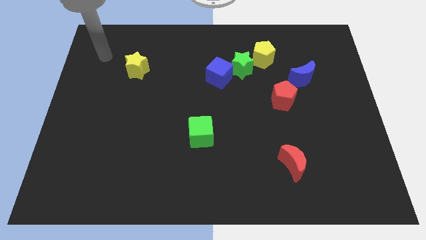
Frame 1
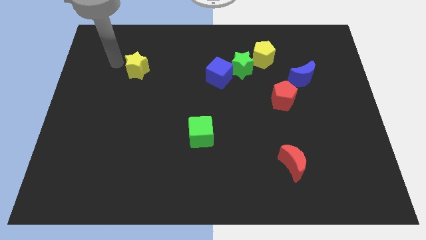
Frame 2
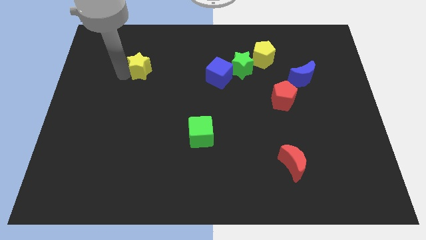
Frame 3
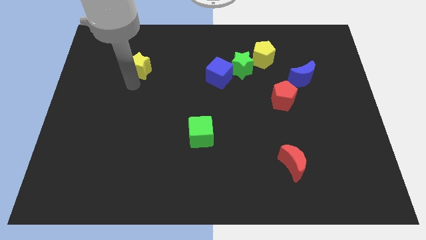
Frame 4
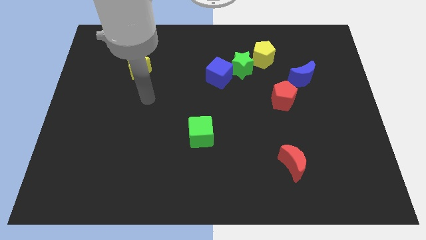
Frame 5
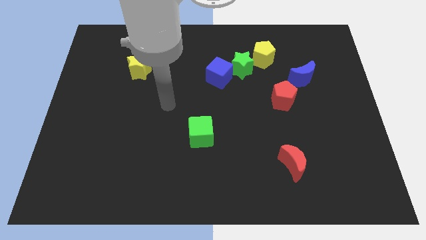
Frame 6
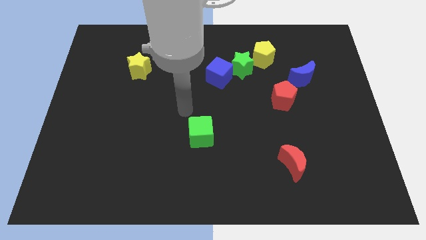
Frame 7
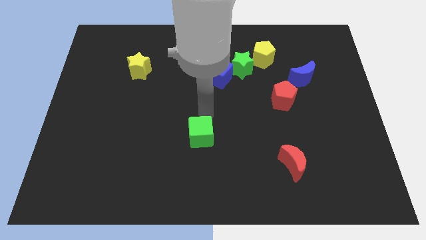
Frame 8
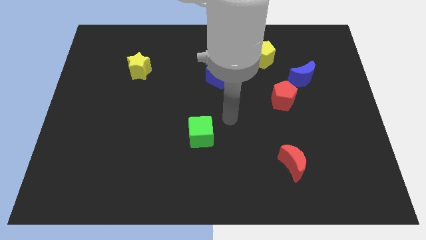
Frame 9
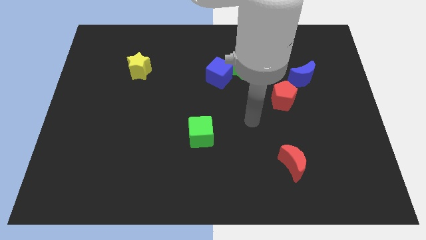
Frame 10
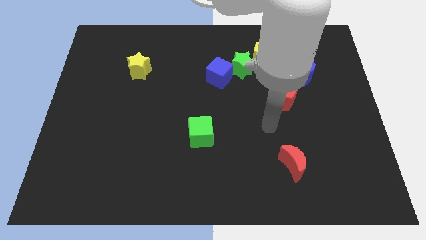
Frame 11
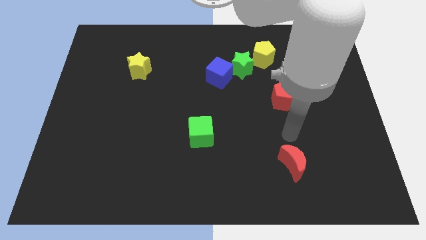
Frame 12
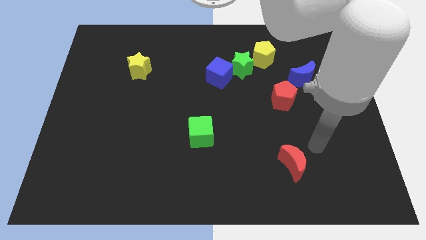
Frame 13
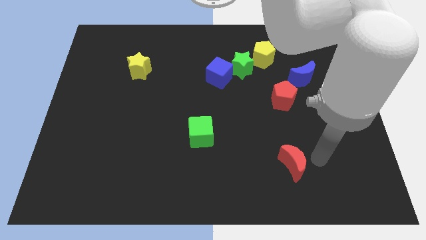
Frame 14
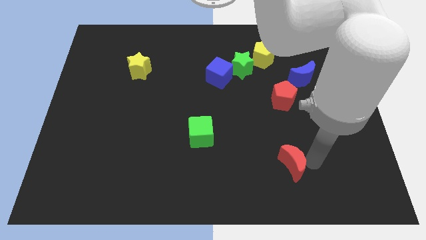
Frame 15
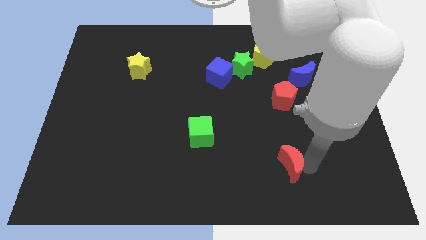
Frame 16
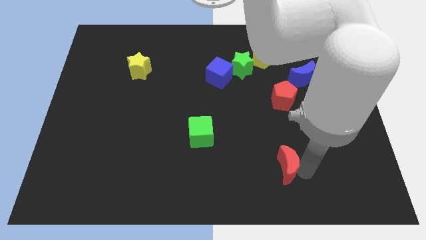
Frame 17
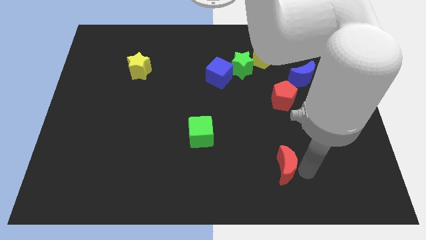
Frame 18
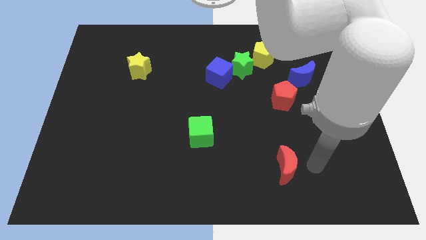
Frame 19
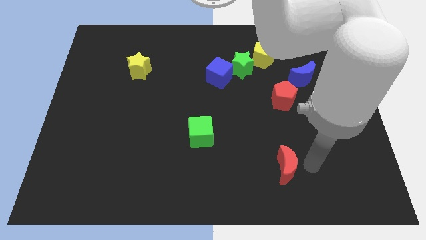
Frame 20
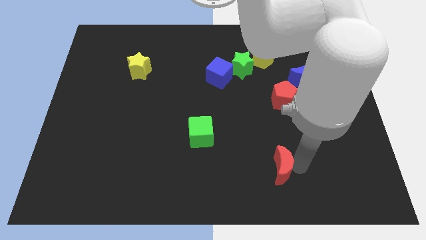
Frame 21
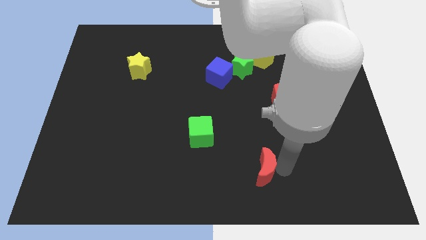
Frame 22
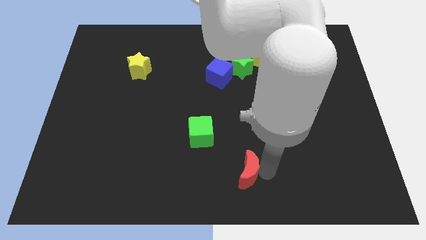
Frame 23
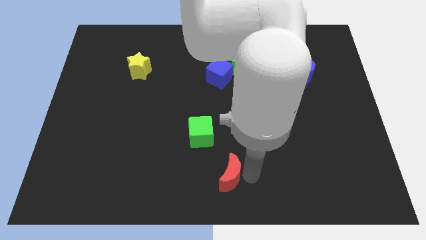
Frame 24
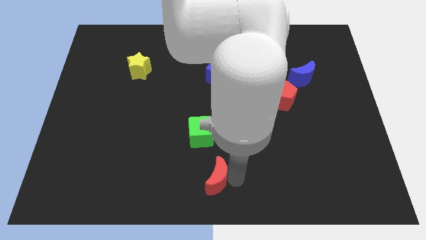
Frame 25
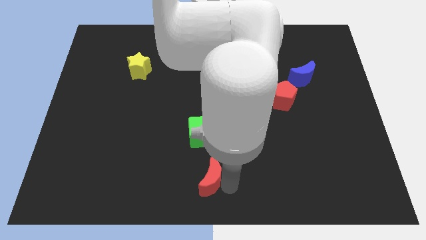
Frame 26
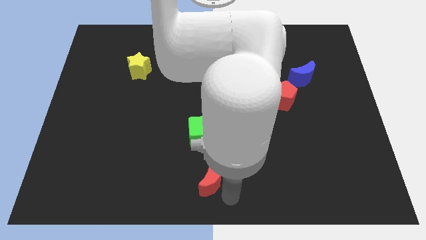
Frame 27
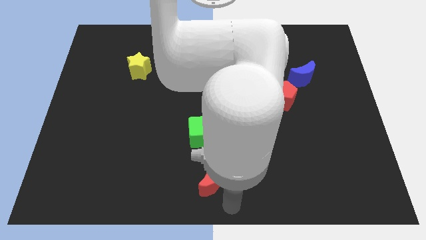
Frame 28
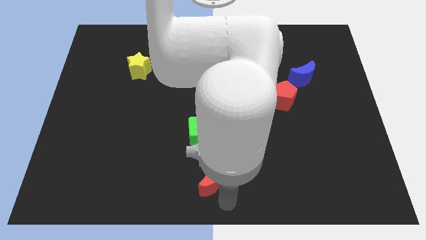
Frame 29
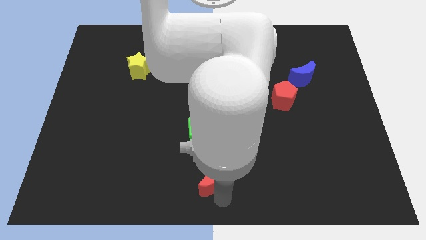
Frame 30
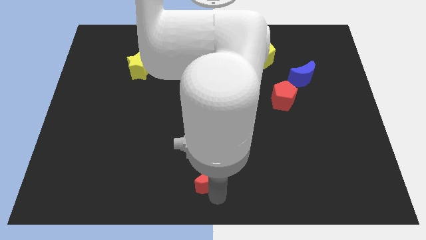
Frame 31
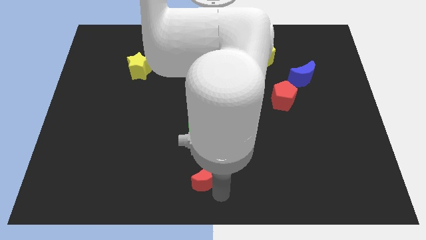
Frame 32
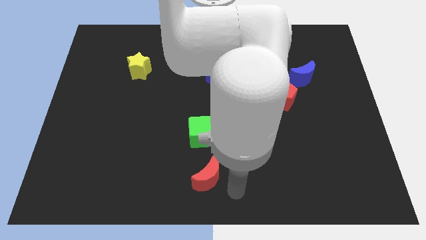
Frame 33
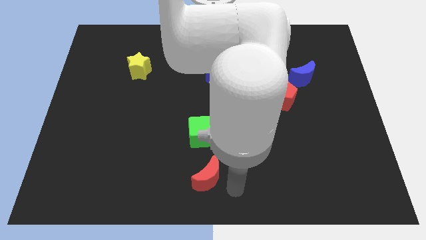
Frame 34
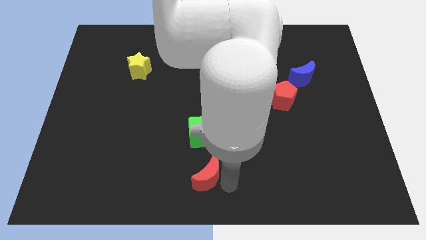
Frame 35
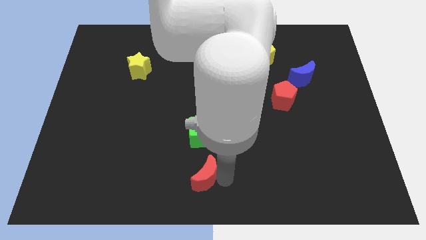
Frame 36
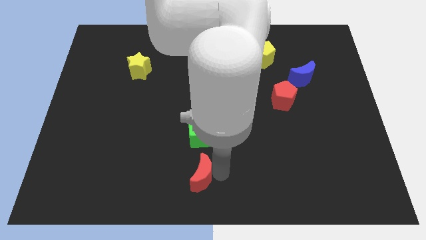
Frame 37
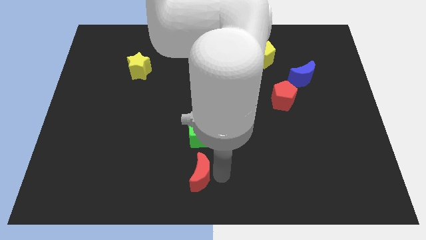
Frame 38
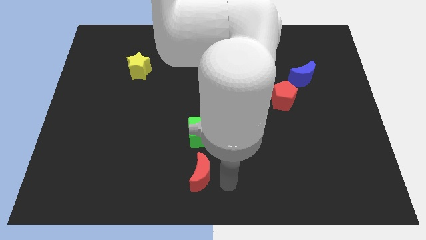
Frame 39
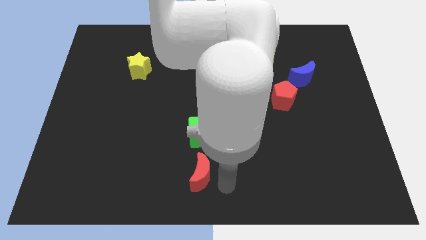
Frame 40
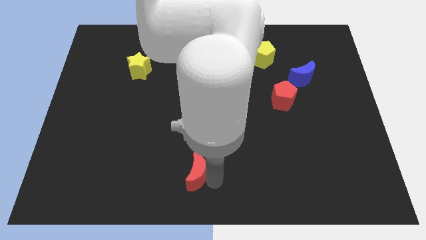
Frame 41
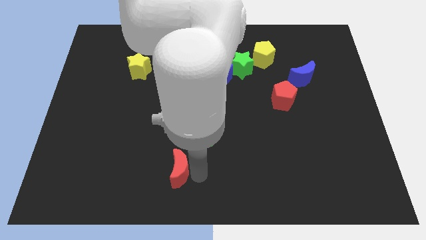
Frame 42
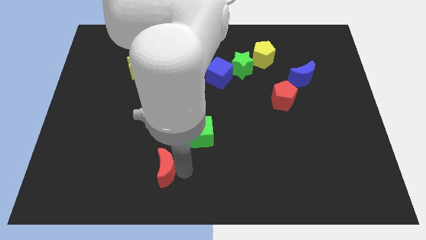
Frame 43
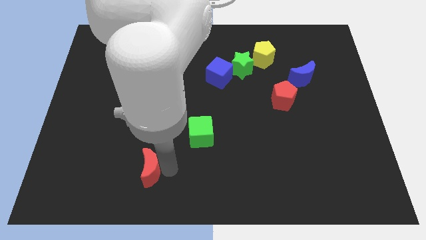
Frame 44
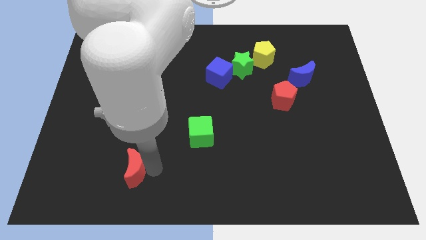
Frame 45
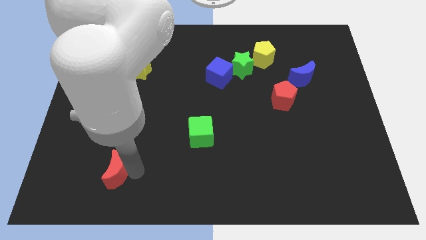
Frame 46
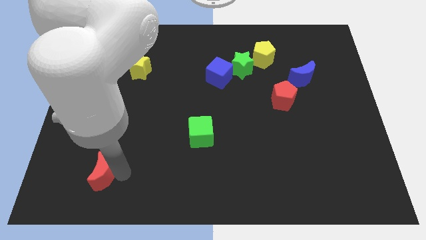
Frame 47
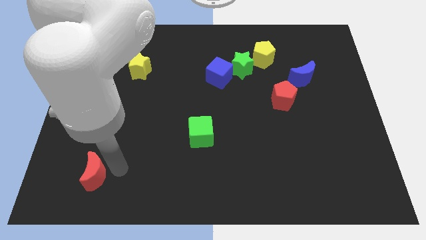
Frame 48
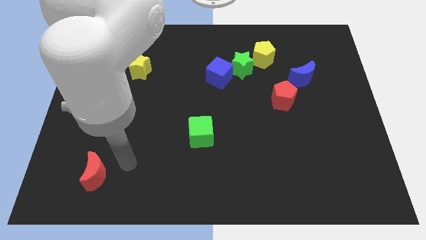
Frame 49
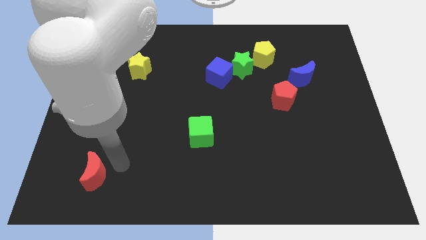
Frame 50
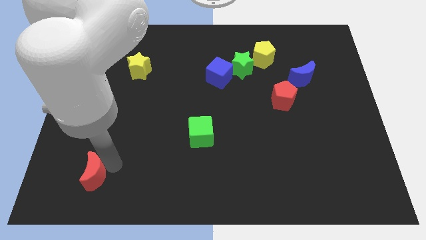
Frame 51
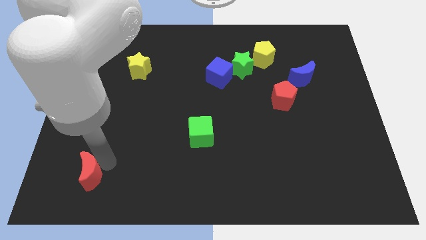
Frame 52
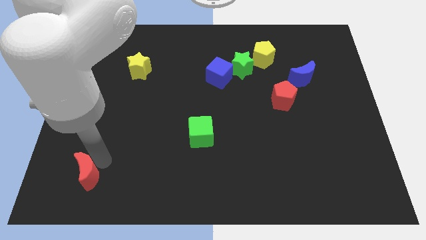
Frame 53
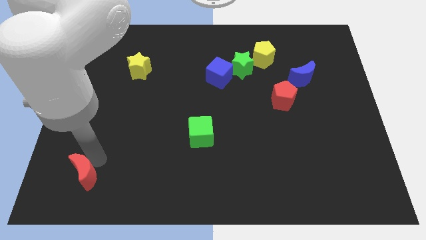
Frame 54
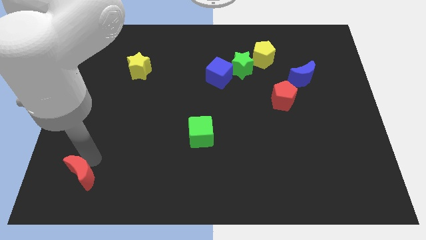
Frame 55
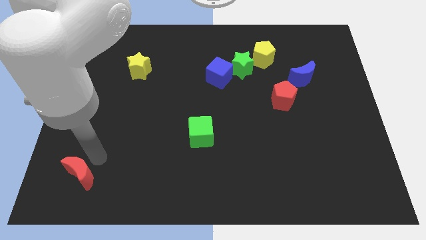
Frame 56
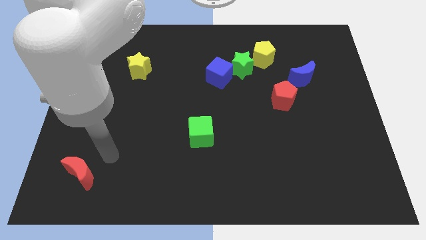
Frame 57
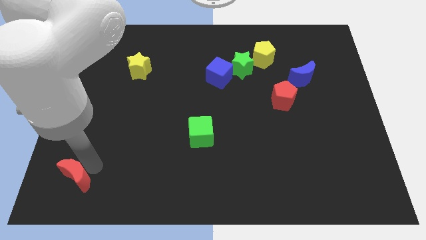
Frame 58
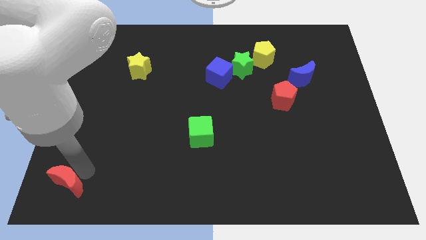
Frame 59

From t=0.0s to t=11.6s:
slide the red moon to the bottom left of the board

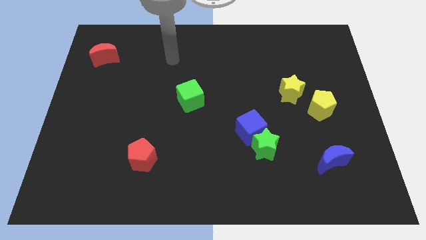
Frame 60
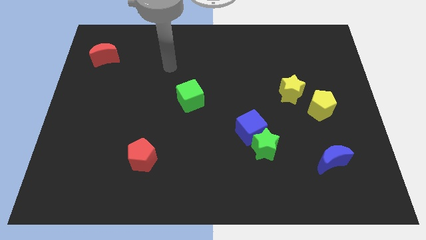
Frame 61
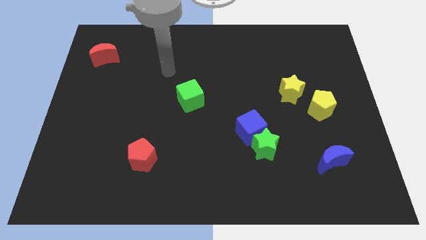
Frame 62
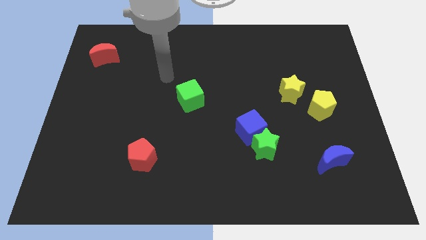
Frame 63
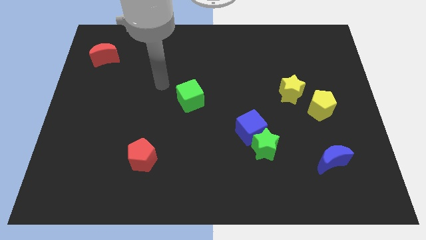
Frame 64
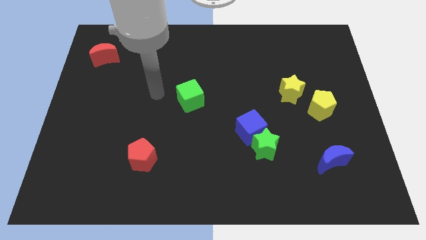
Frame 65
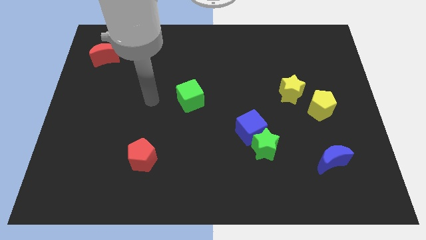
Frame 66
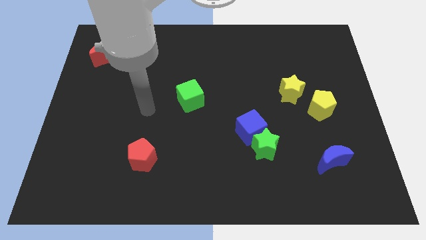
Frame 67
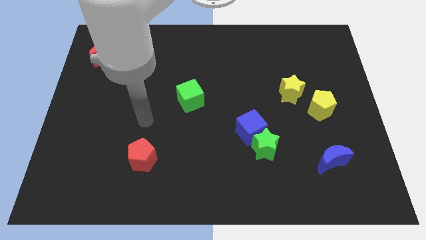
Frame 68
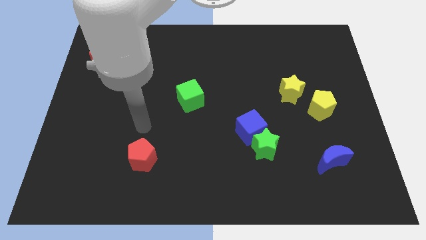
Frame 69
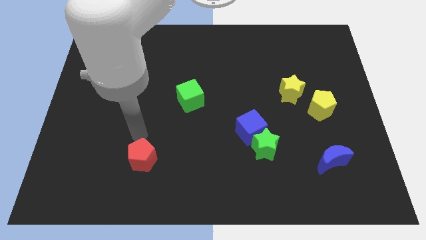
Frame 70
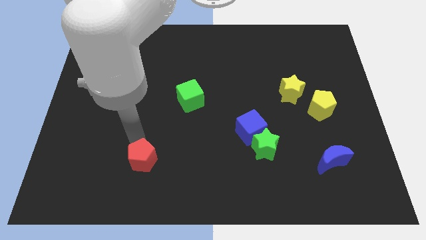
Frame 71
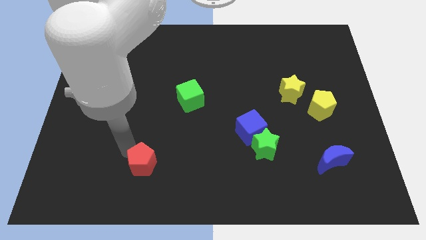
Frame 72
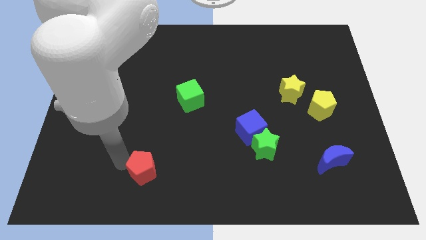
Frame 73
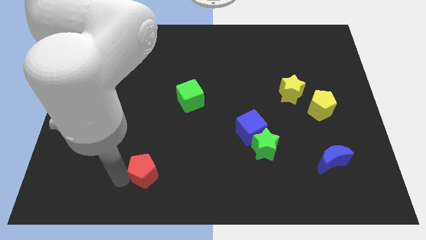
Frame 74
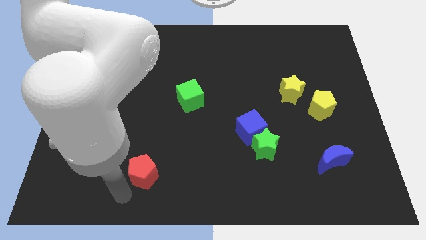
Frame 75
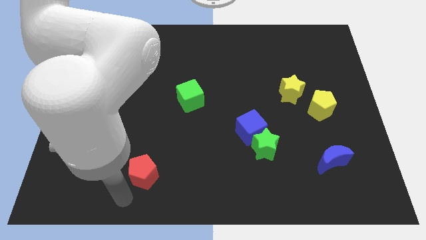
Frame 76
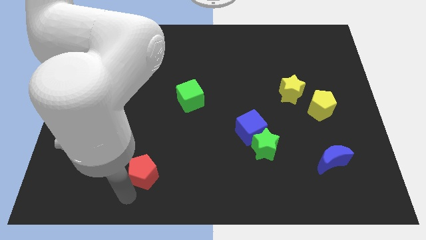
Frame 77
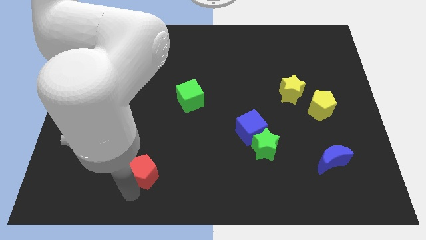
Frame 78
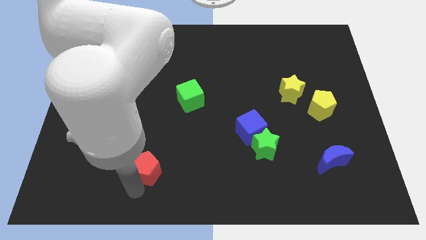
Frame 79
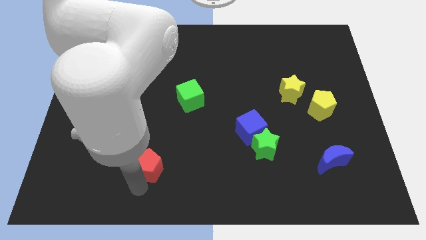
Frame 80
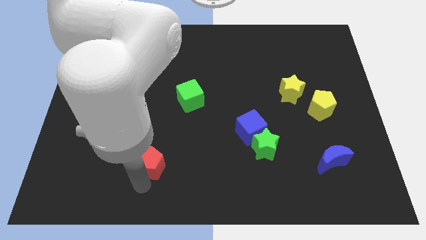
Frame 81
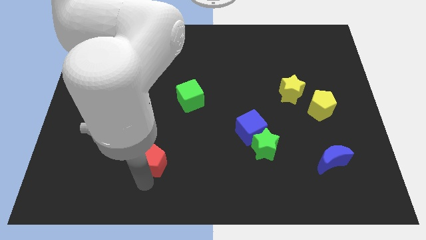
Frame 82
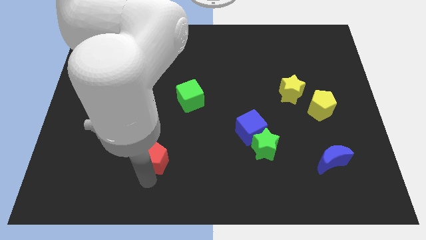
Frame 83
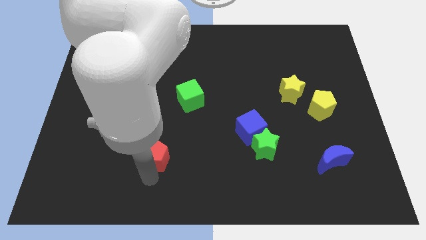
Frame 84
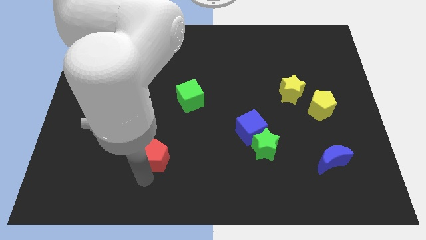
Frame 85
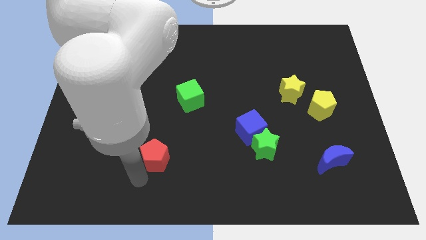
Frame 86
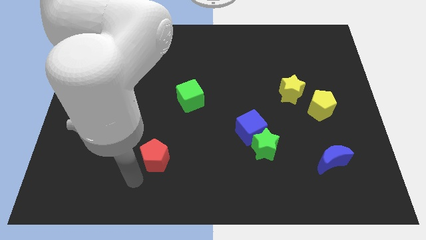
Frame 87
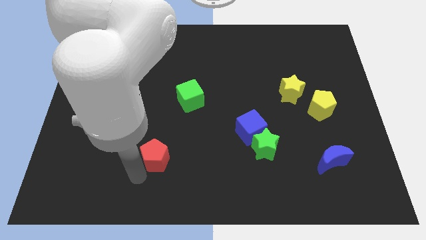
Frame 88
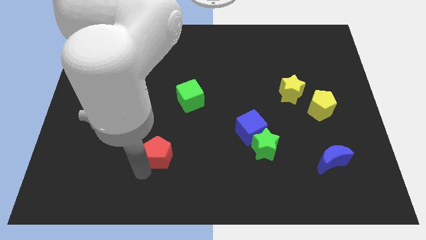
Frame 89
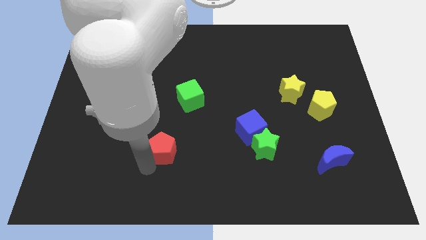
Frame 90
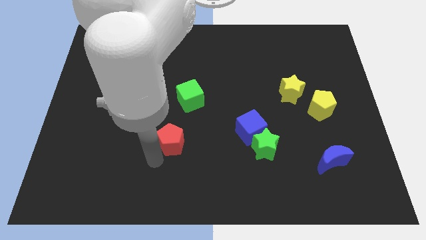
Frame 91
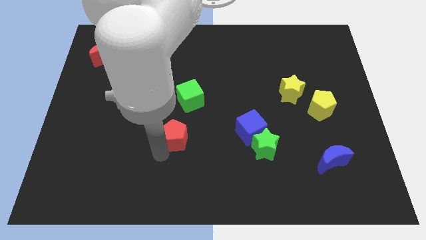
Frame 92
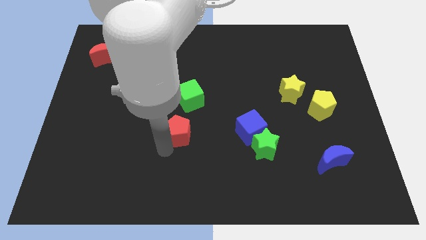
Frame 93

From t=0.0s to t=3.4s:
push the red pentagon to the center
